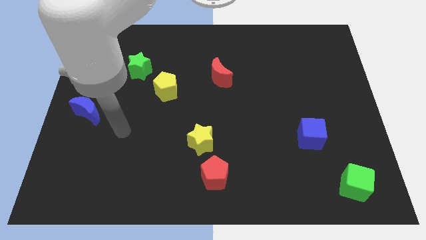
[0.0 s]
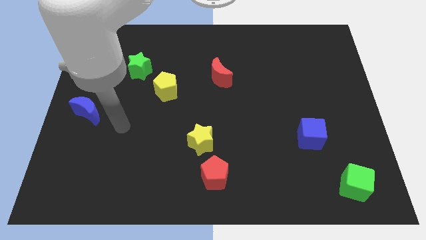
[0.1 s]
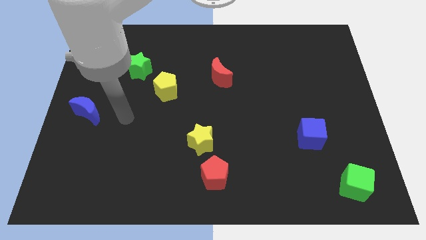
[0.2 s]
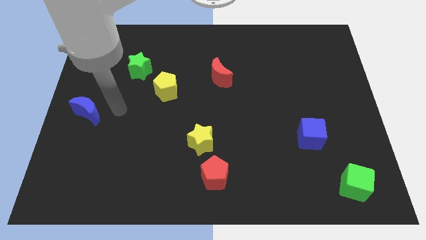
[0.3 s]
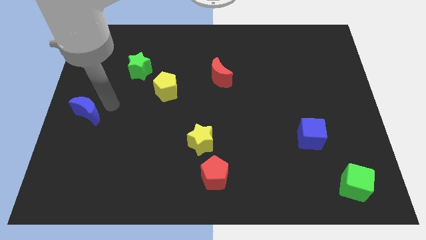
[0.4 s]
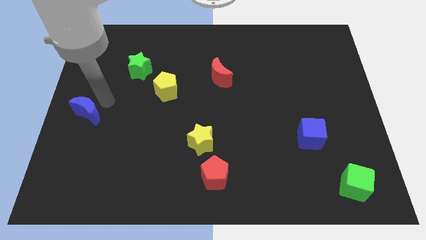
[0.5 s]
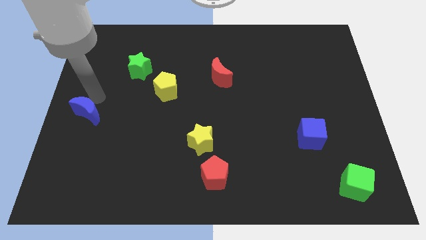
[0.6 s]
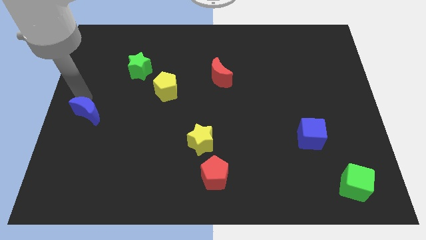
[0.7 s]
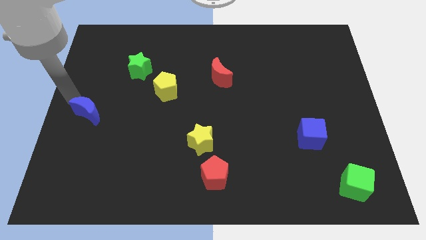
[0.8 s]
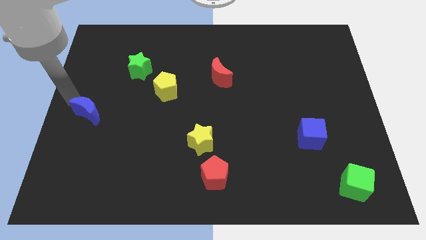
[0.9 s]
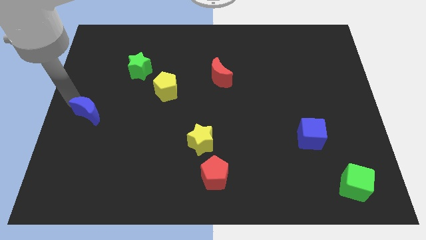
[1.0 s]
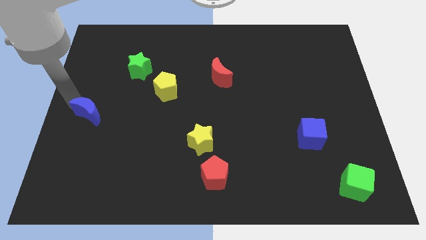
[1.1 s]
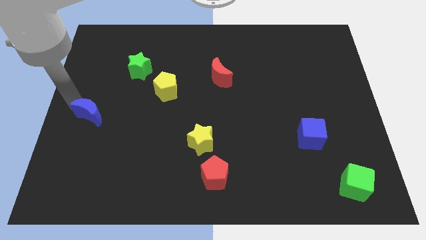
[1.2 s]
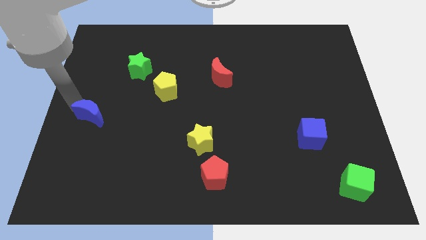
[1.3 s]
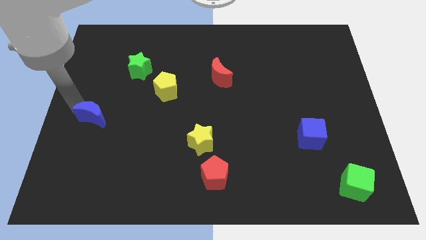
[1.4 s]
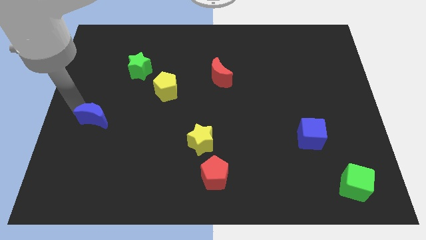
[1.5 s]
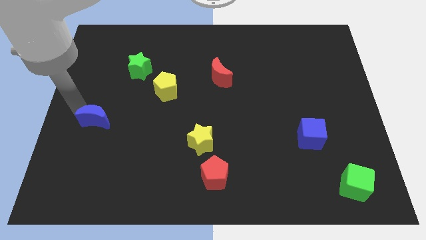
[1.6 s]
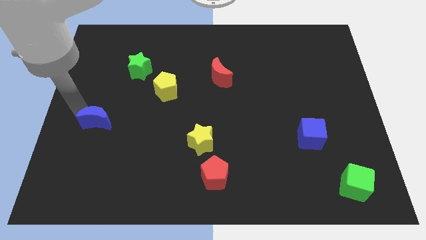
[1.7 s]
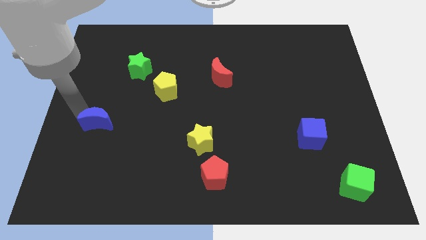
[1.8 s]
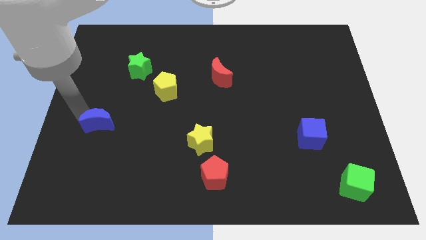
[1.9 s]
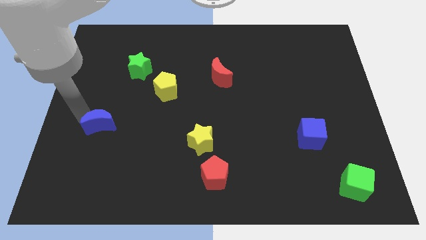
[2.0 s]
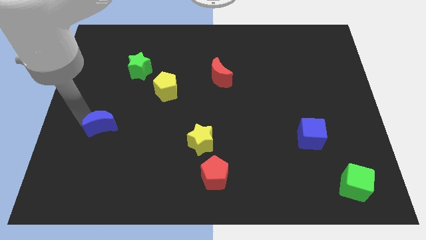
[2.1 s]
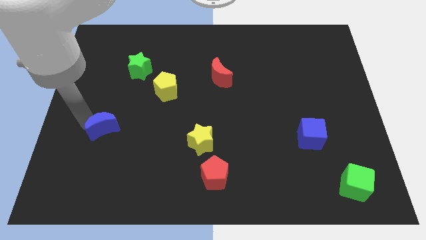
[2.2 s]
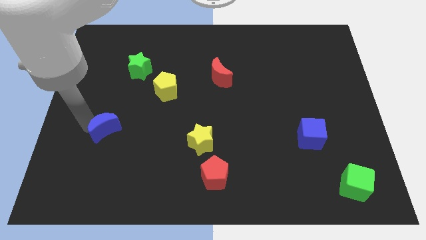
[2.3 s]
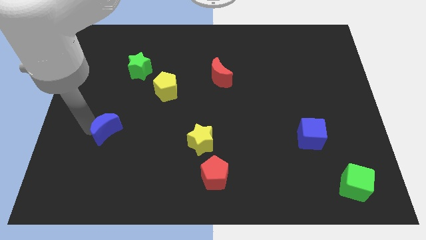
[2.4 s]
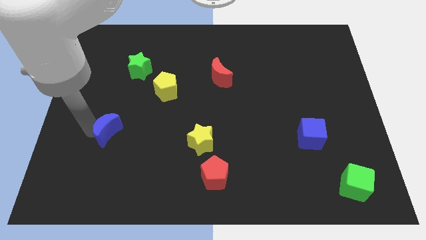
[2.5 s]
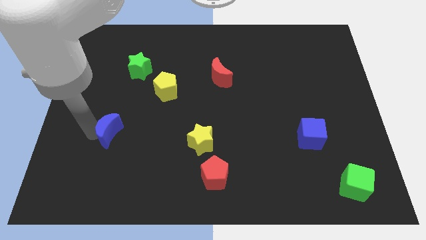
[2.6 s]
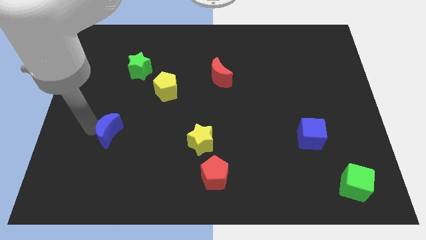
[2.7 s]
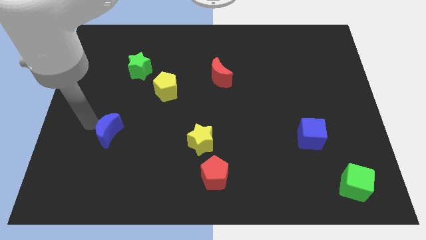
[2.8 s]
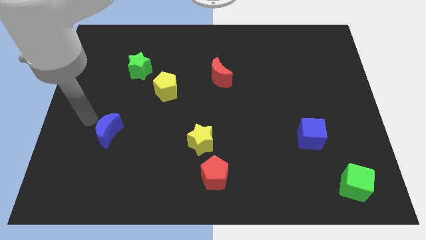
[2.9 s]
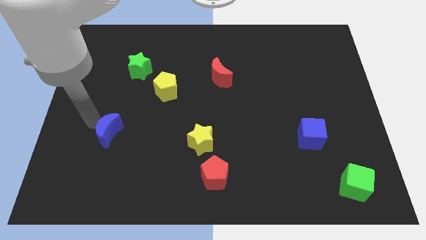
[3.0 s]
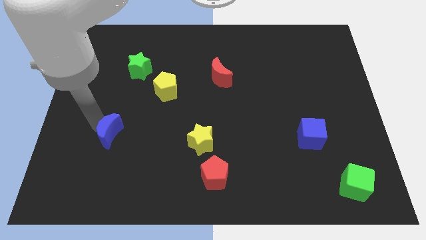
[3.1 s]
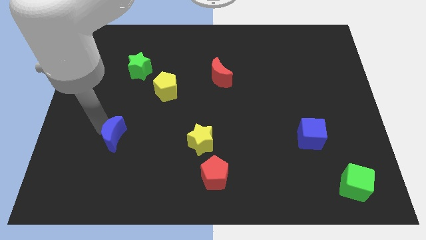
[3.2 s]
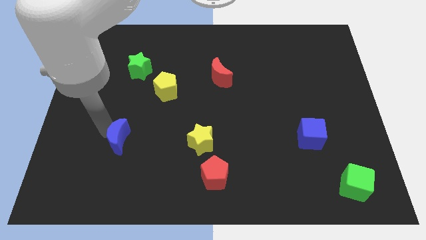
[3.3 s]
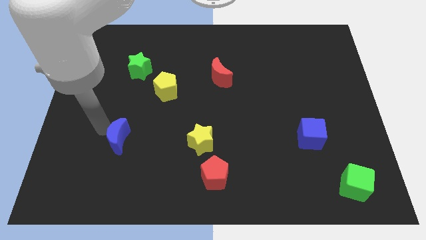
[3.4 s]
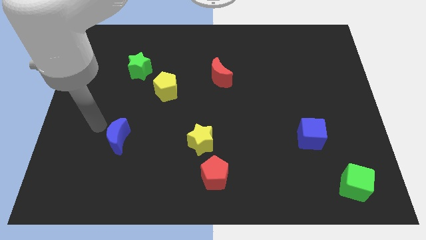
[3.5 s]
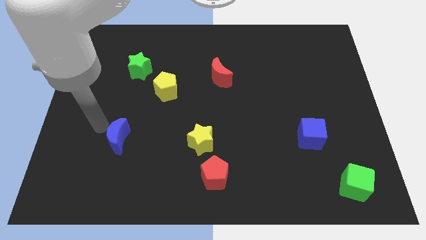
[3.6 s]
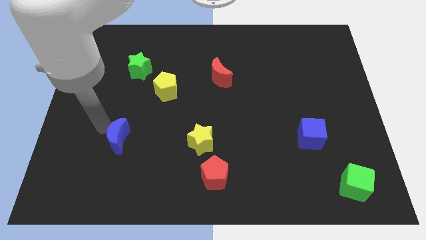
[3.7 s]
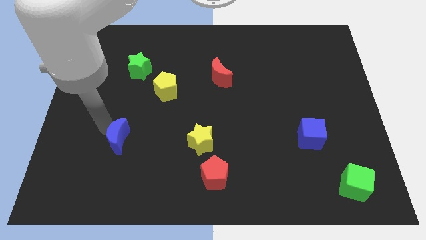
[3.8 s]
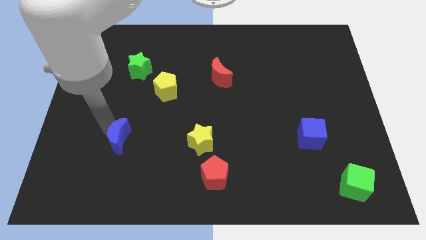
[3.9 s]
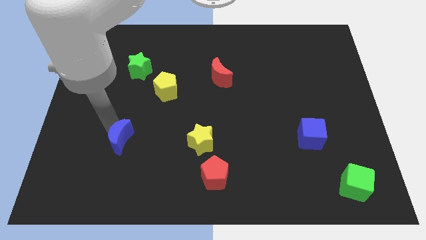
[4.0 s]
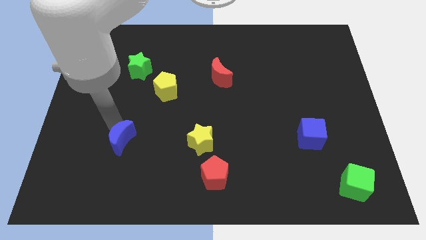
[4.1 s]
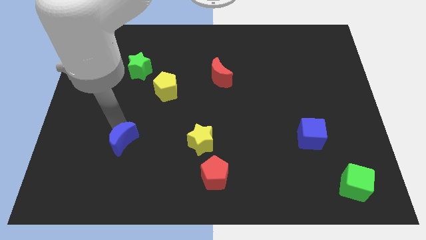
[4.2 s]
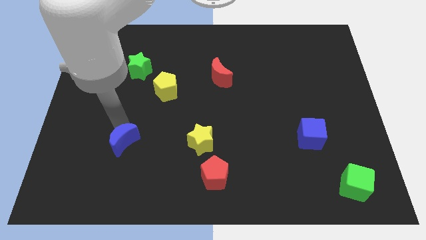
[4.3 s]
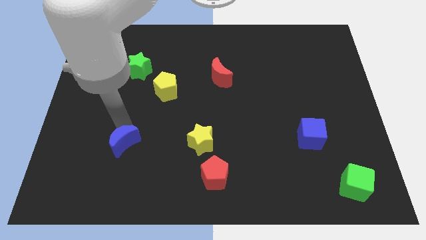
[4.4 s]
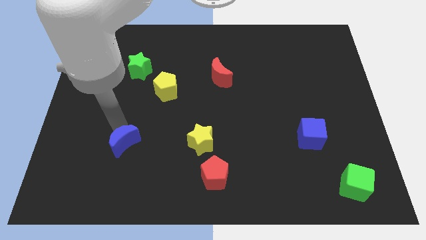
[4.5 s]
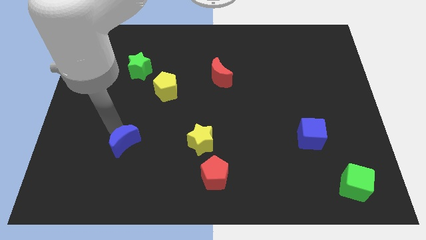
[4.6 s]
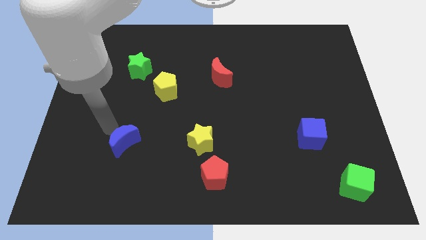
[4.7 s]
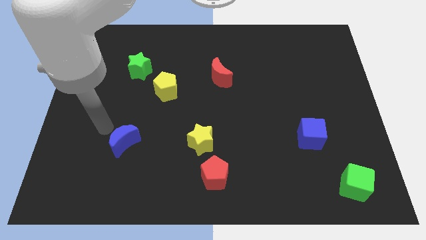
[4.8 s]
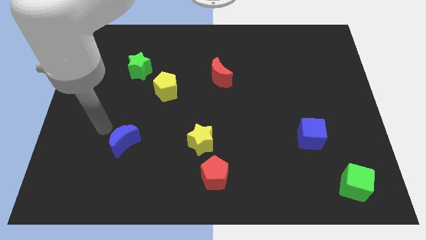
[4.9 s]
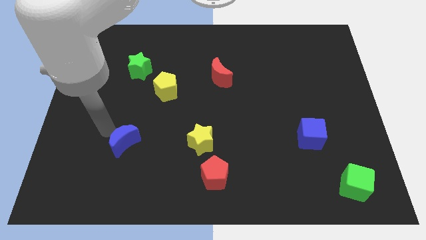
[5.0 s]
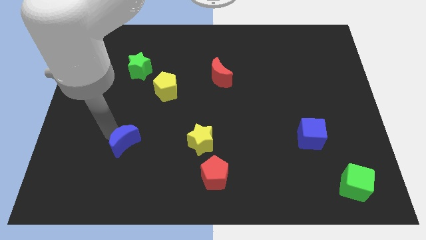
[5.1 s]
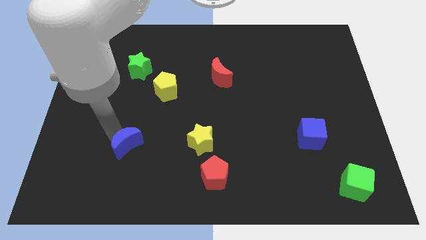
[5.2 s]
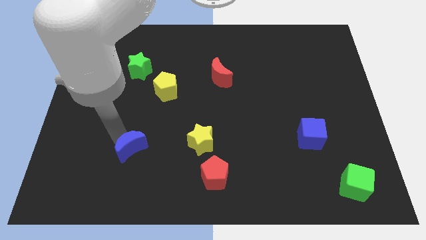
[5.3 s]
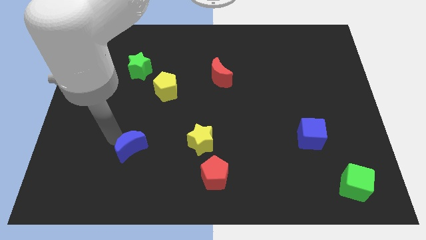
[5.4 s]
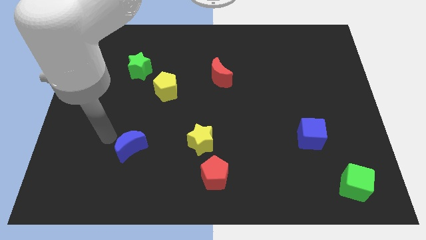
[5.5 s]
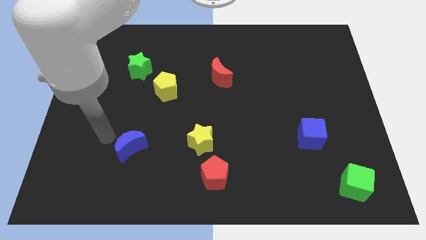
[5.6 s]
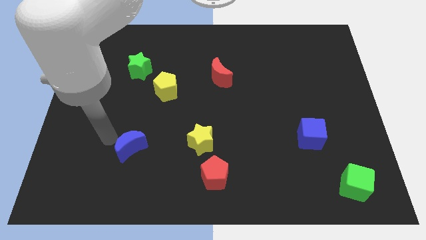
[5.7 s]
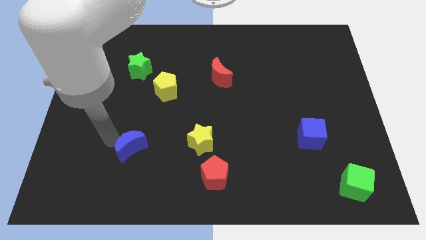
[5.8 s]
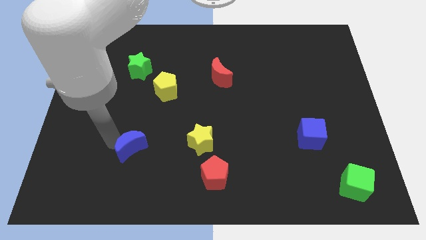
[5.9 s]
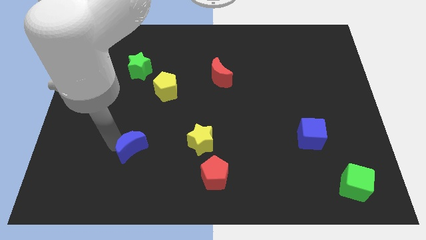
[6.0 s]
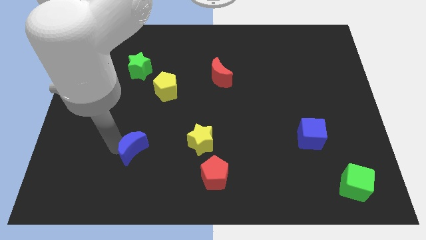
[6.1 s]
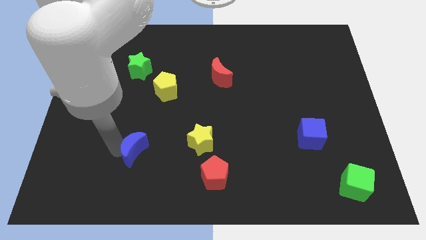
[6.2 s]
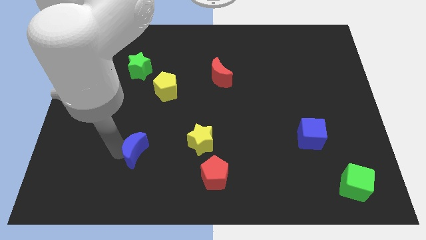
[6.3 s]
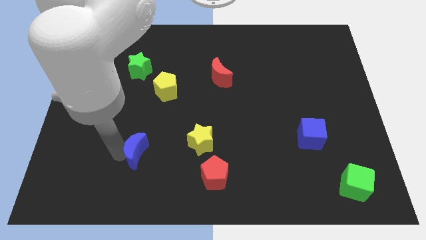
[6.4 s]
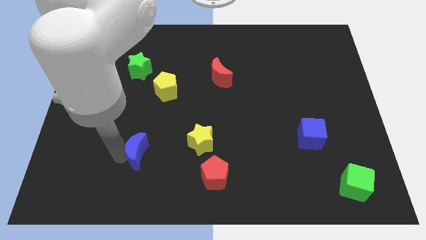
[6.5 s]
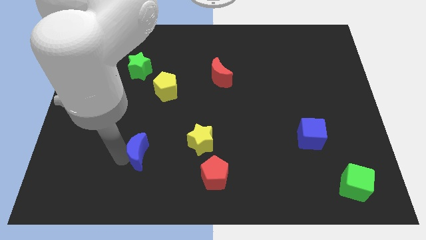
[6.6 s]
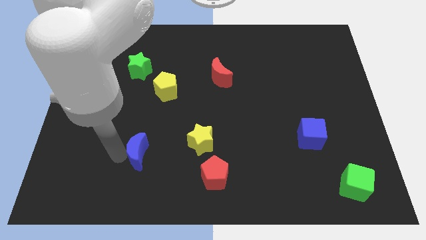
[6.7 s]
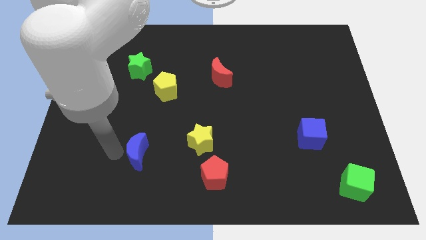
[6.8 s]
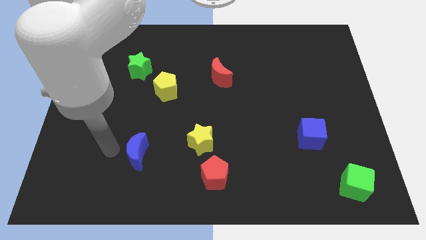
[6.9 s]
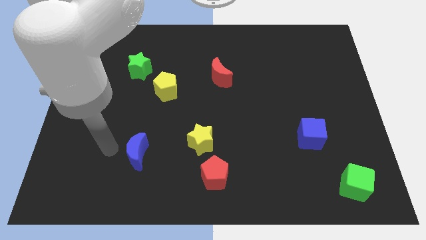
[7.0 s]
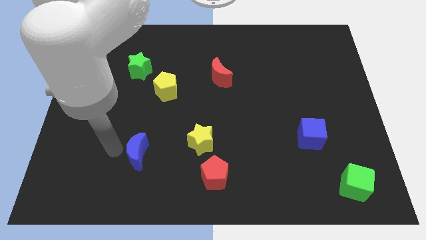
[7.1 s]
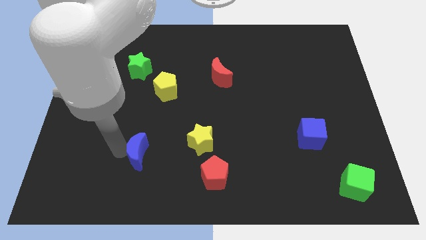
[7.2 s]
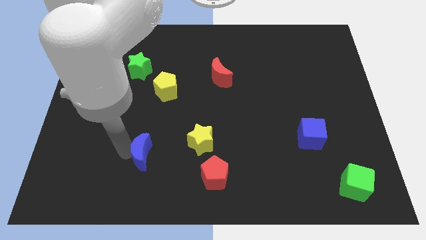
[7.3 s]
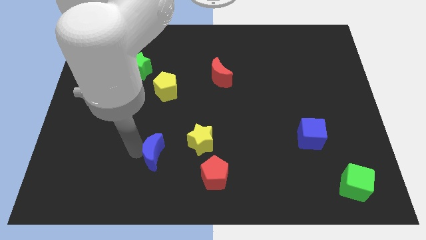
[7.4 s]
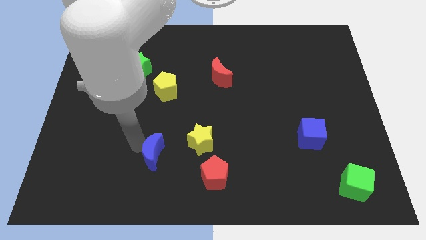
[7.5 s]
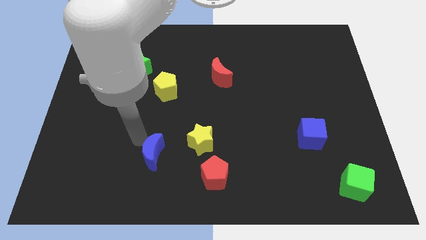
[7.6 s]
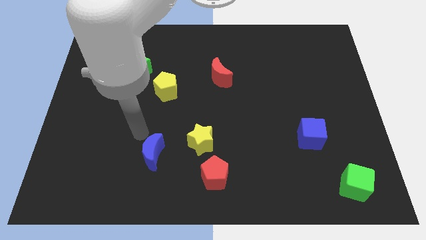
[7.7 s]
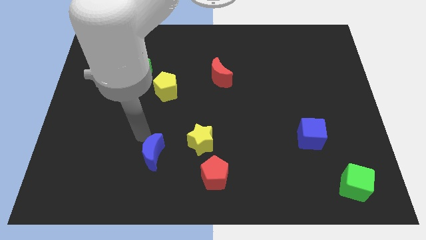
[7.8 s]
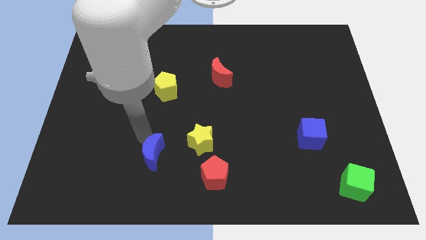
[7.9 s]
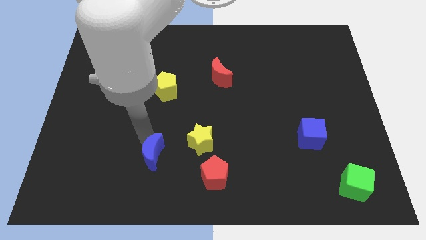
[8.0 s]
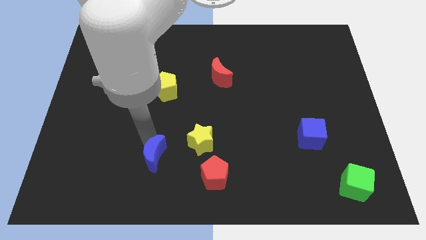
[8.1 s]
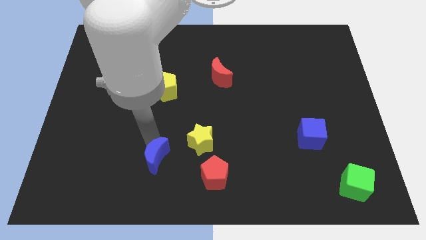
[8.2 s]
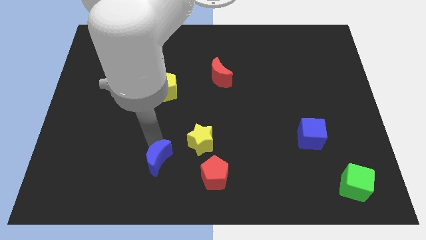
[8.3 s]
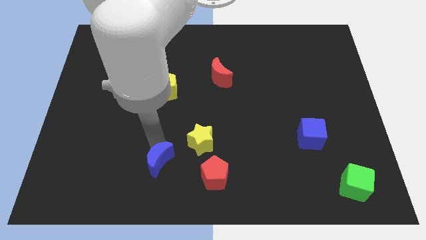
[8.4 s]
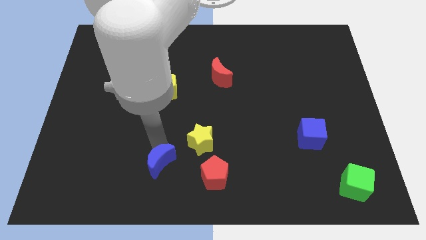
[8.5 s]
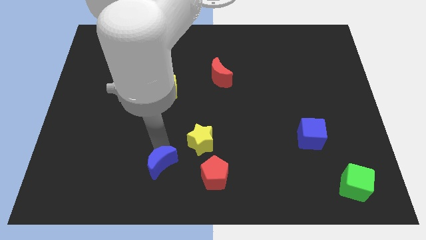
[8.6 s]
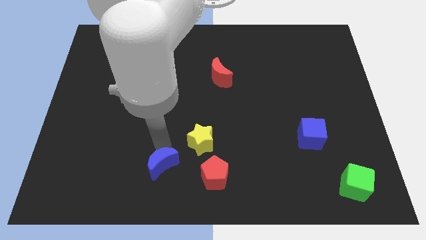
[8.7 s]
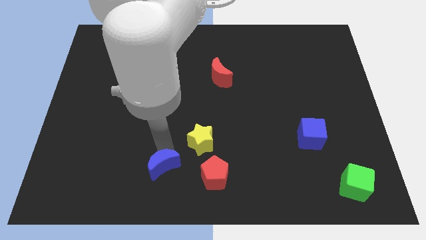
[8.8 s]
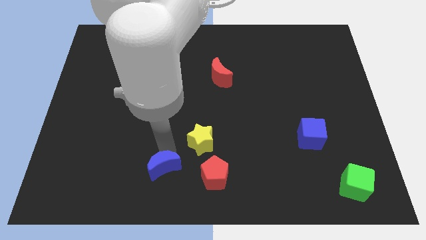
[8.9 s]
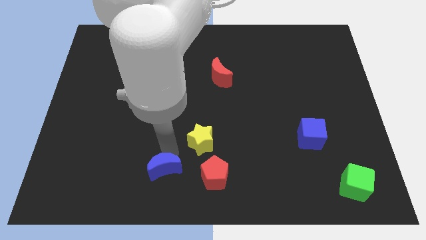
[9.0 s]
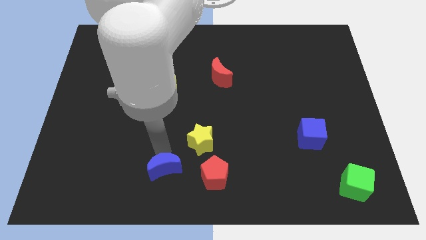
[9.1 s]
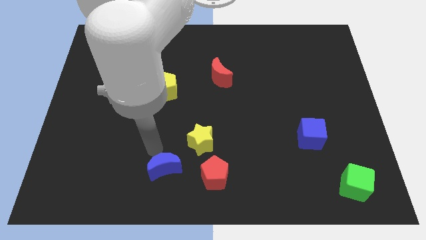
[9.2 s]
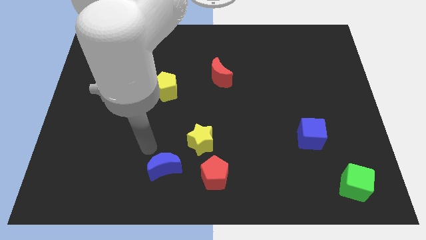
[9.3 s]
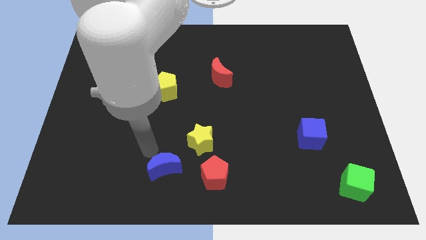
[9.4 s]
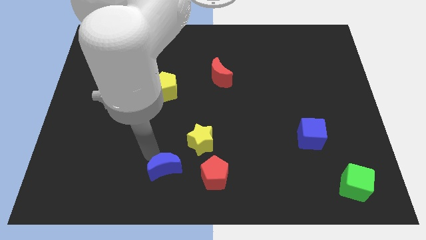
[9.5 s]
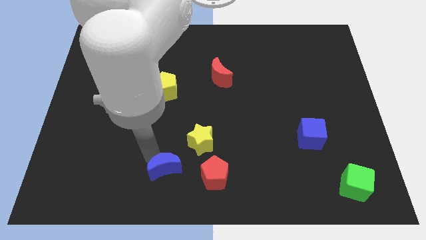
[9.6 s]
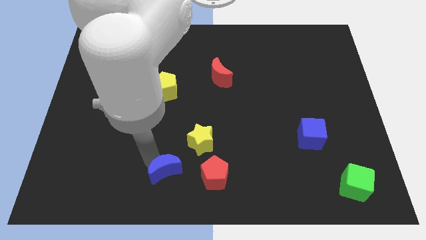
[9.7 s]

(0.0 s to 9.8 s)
slide the blue moon to the bottom side
